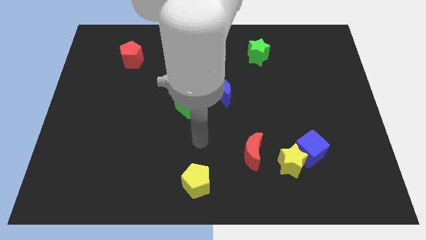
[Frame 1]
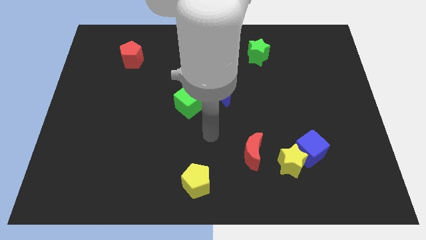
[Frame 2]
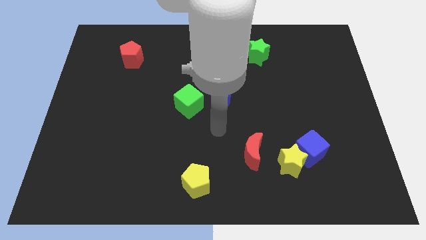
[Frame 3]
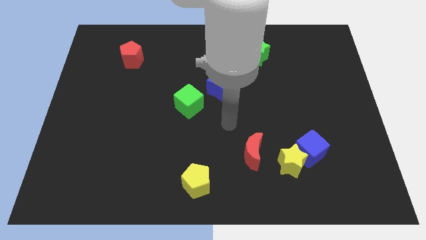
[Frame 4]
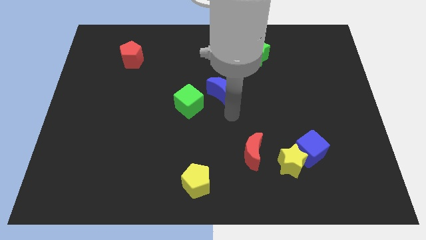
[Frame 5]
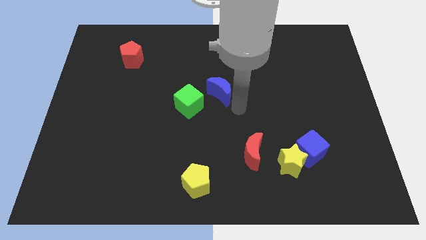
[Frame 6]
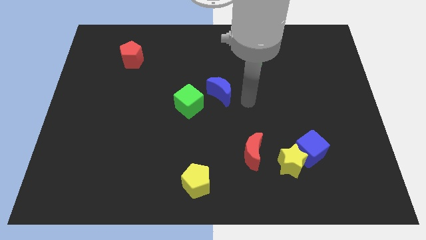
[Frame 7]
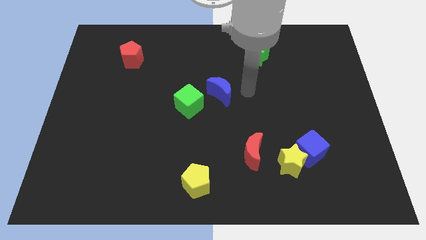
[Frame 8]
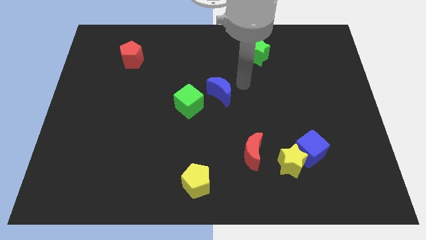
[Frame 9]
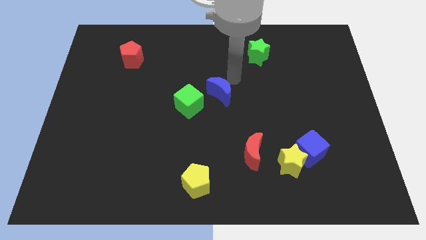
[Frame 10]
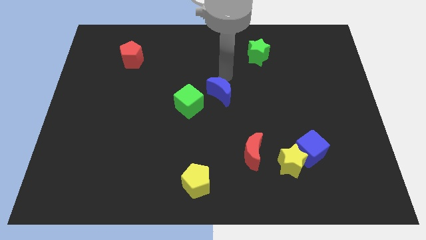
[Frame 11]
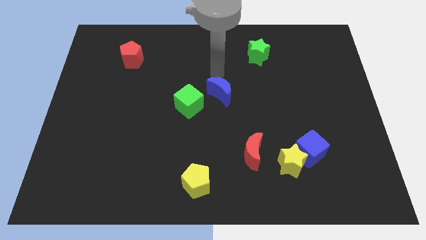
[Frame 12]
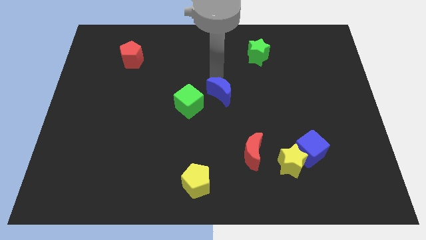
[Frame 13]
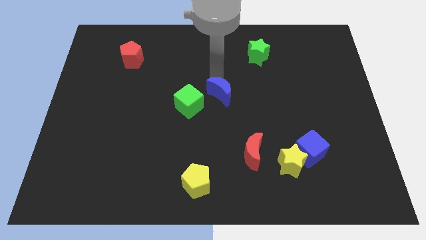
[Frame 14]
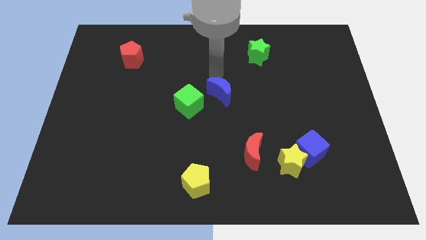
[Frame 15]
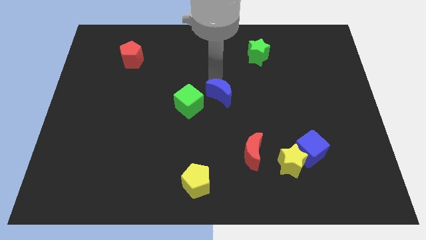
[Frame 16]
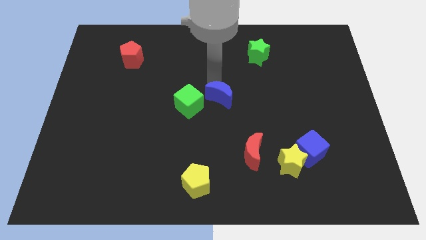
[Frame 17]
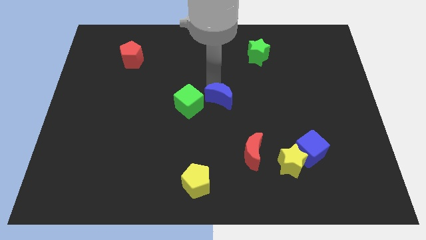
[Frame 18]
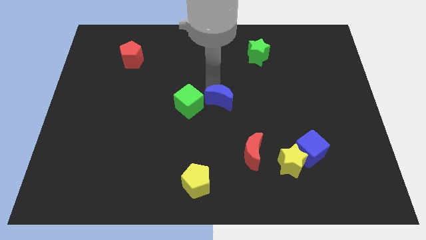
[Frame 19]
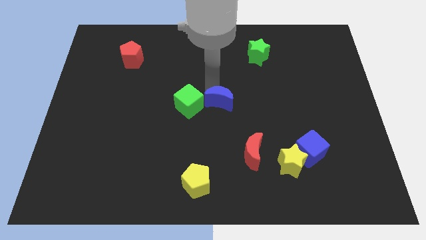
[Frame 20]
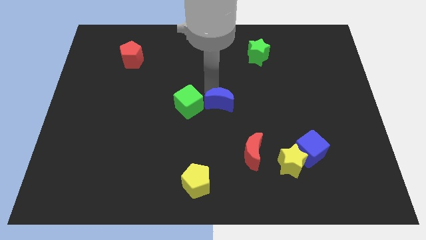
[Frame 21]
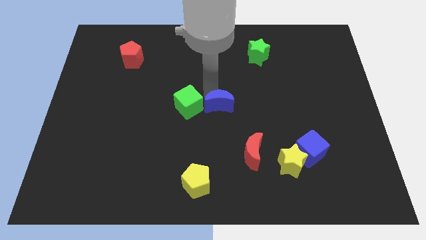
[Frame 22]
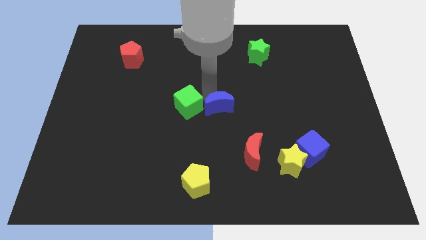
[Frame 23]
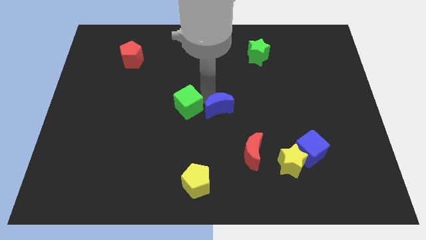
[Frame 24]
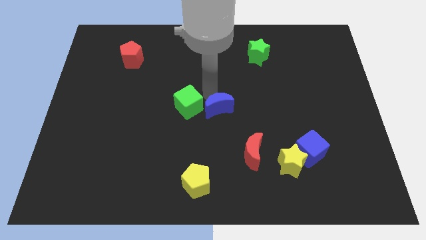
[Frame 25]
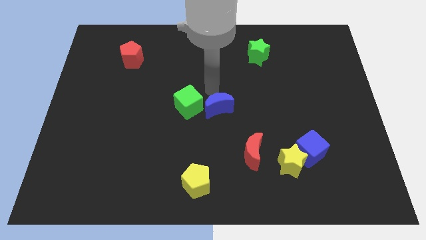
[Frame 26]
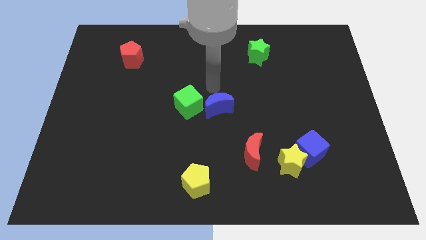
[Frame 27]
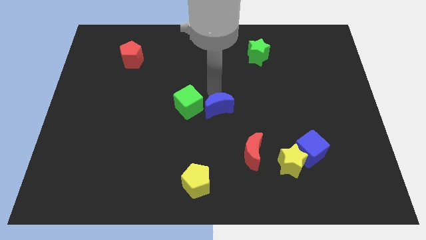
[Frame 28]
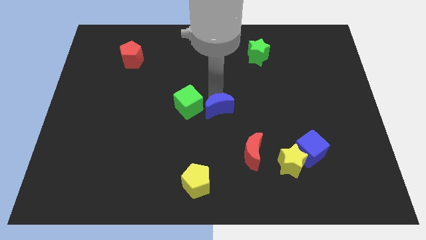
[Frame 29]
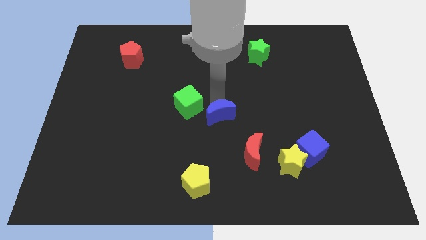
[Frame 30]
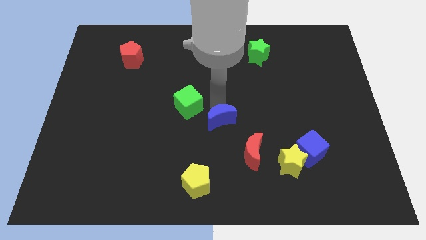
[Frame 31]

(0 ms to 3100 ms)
slightly move the blue moon down

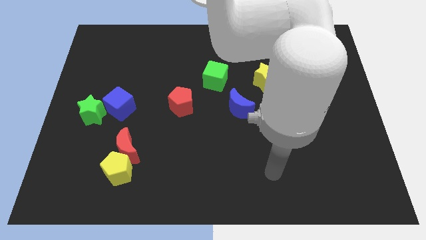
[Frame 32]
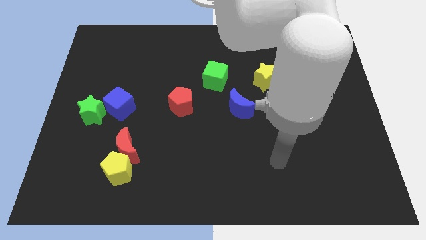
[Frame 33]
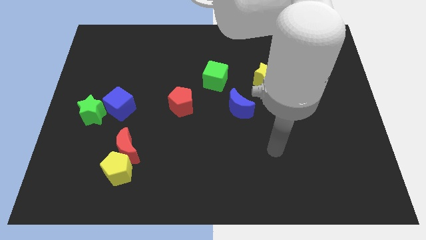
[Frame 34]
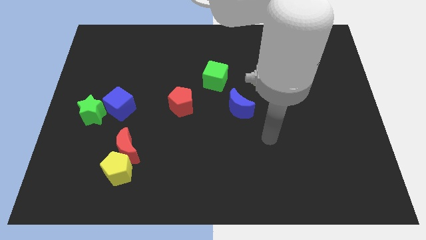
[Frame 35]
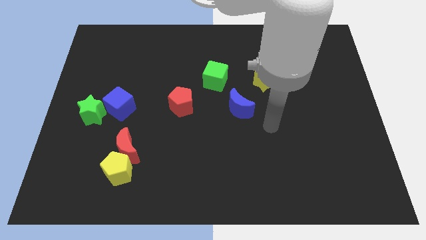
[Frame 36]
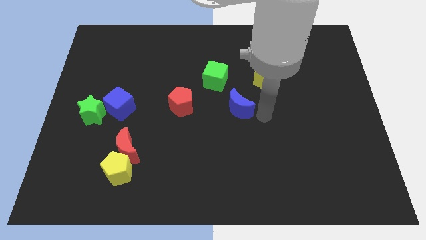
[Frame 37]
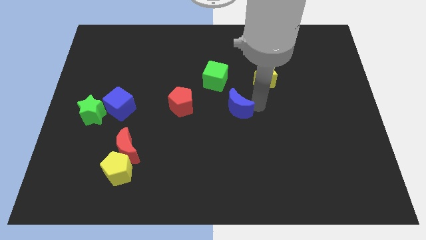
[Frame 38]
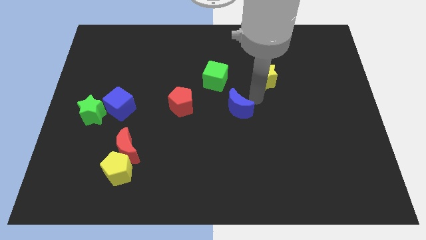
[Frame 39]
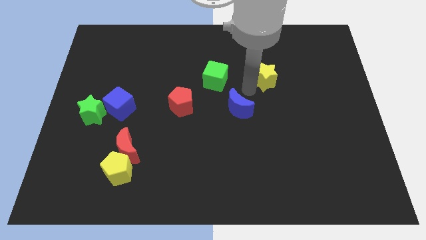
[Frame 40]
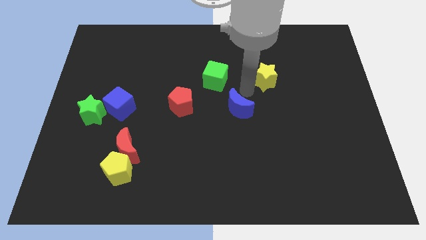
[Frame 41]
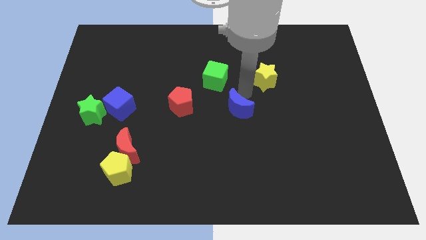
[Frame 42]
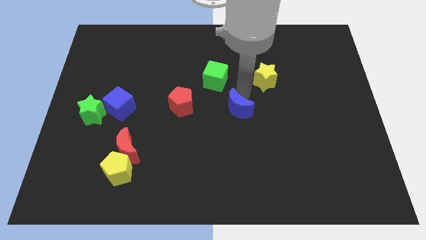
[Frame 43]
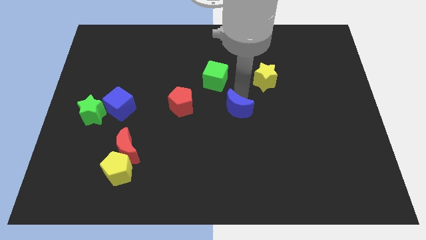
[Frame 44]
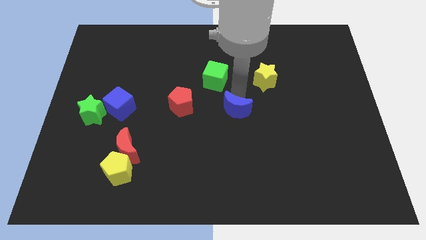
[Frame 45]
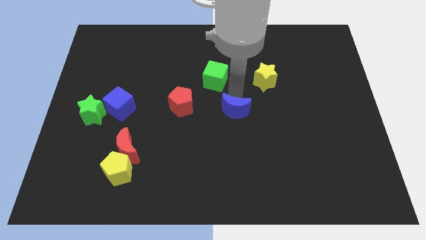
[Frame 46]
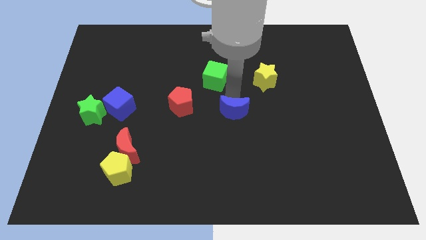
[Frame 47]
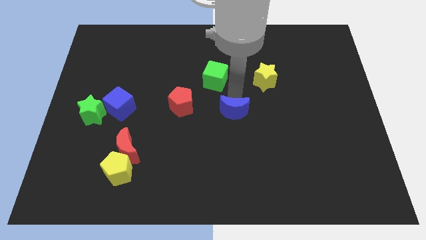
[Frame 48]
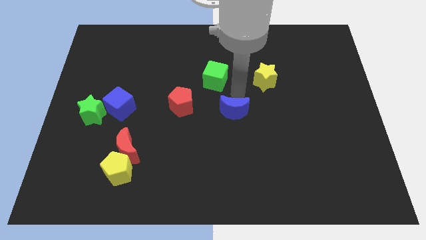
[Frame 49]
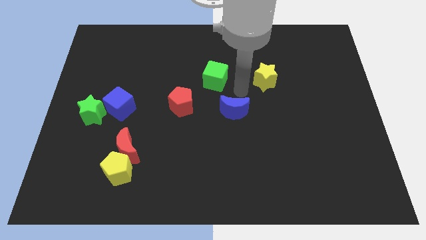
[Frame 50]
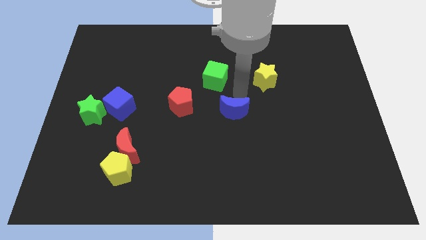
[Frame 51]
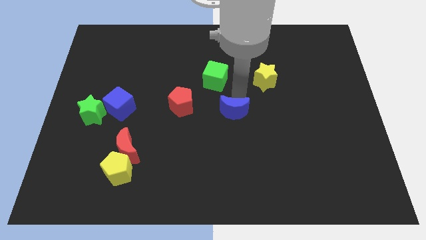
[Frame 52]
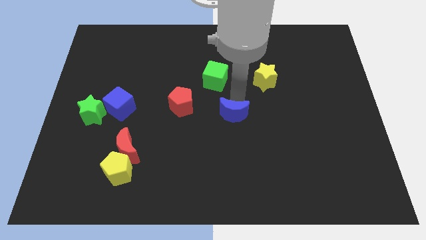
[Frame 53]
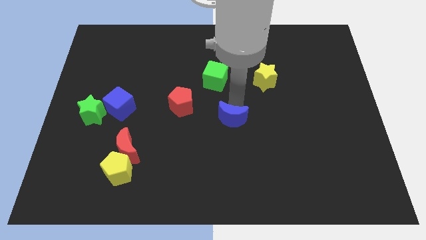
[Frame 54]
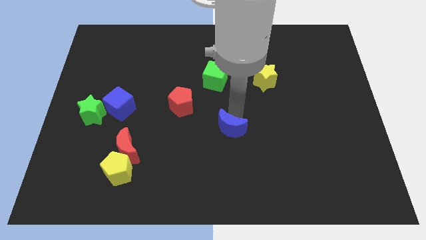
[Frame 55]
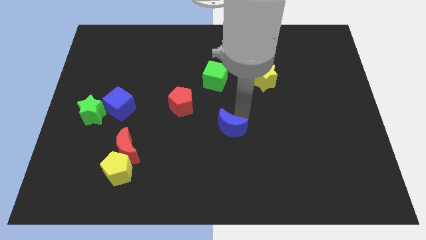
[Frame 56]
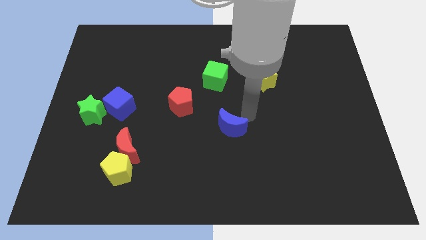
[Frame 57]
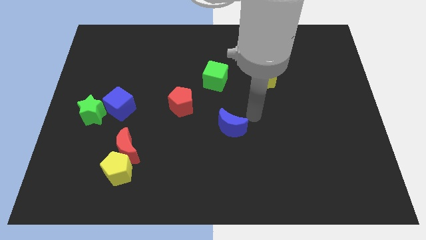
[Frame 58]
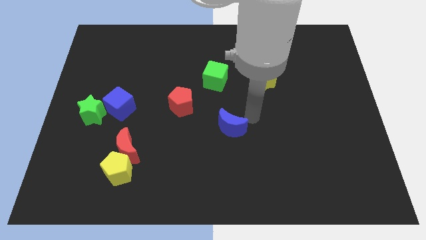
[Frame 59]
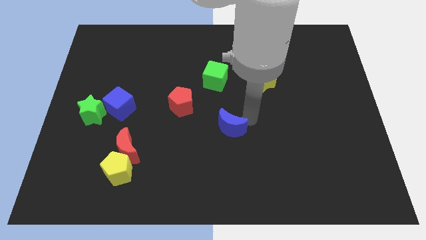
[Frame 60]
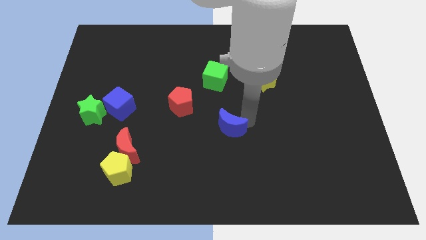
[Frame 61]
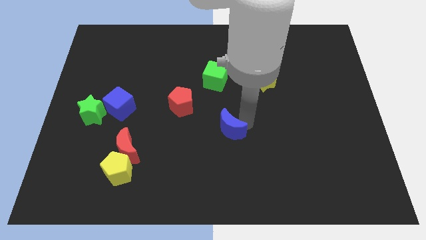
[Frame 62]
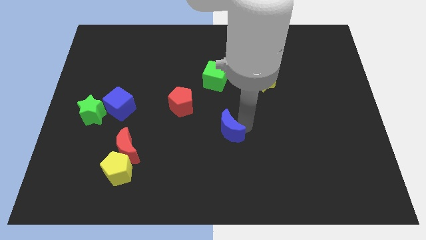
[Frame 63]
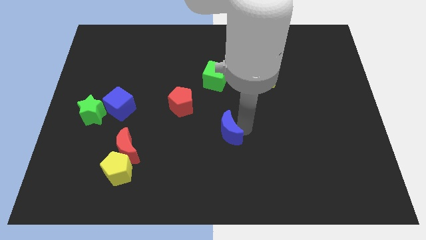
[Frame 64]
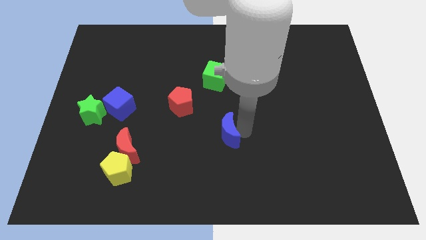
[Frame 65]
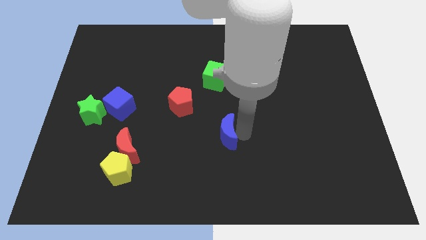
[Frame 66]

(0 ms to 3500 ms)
slide the blue moon a little bit downwards and left

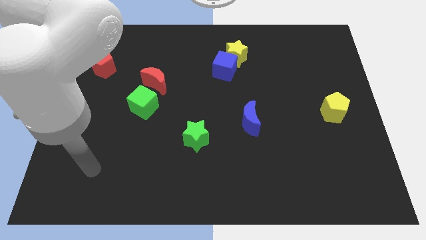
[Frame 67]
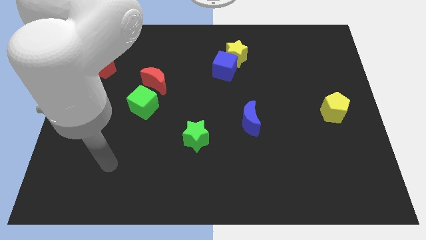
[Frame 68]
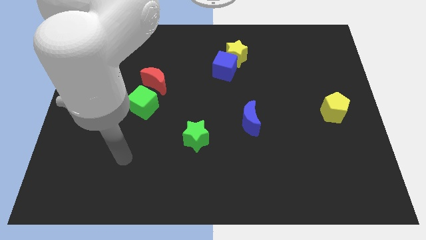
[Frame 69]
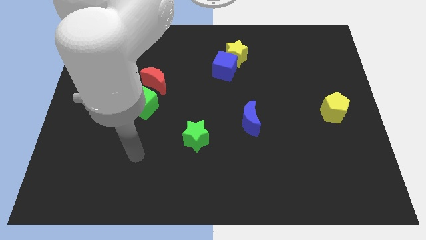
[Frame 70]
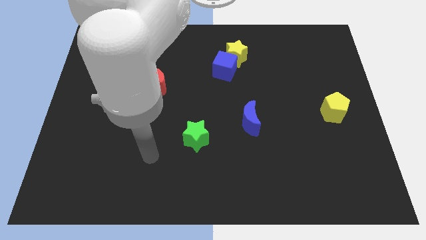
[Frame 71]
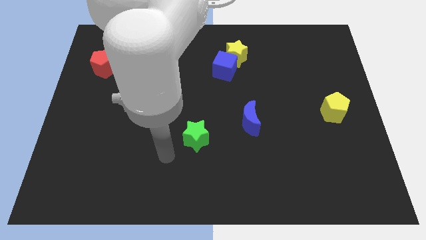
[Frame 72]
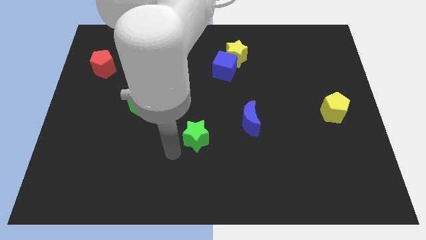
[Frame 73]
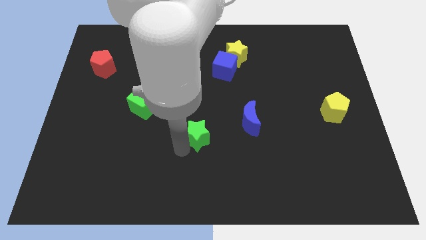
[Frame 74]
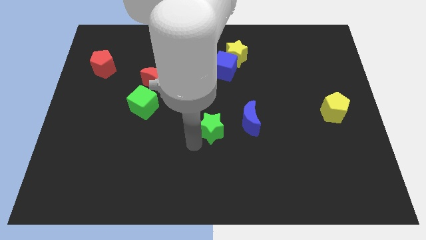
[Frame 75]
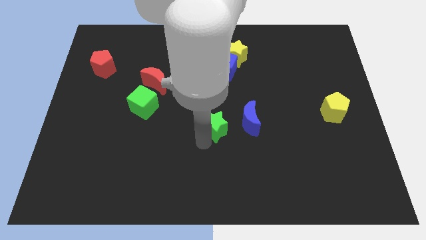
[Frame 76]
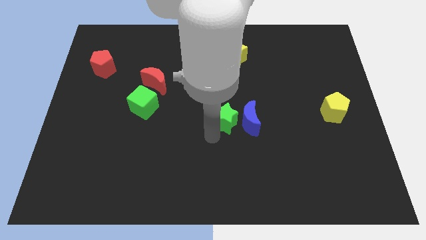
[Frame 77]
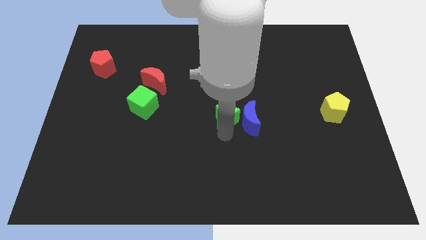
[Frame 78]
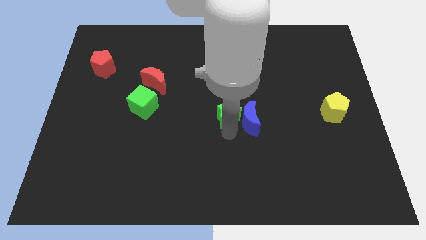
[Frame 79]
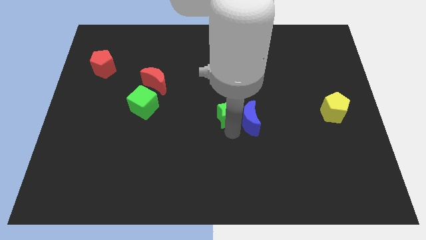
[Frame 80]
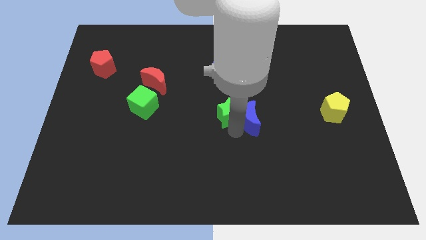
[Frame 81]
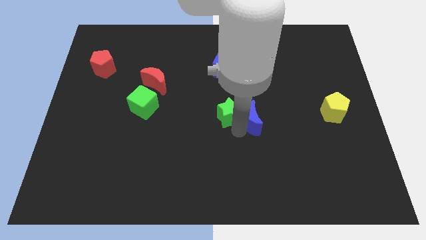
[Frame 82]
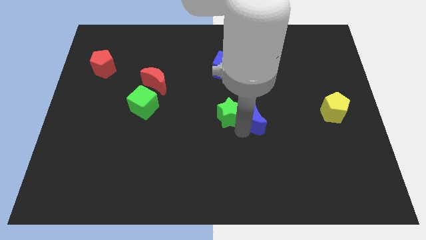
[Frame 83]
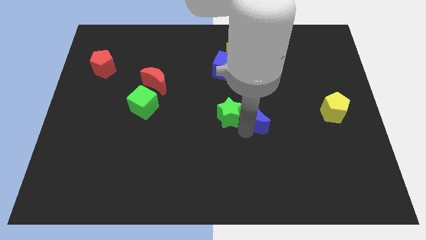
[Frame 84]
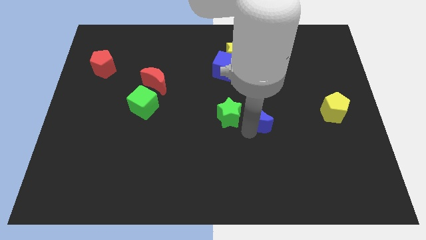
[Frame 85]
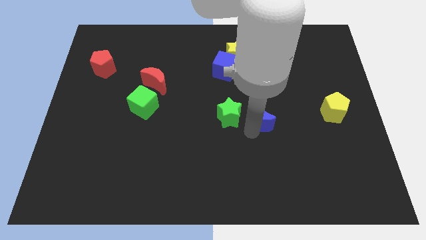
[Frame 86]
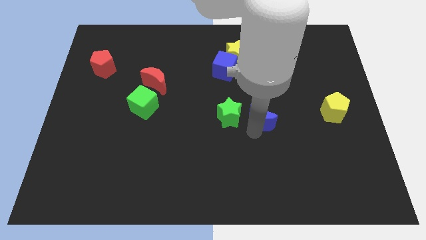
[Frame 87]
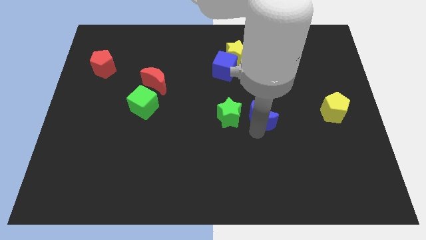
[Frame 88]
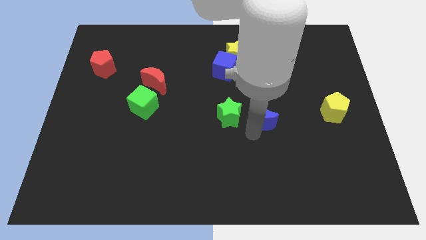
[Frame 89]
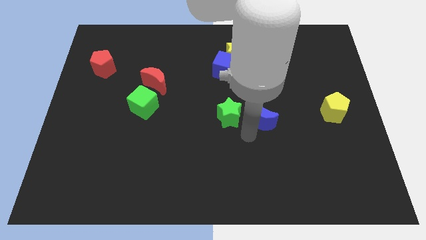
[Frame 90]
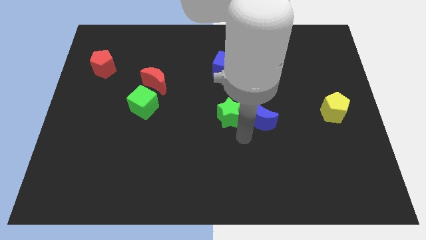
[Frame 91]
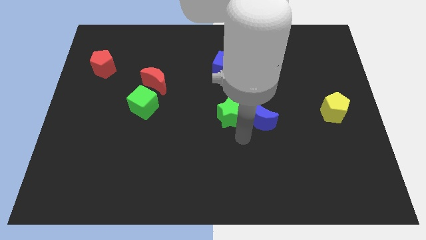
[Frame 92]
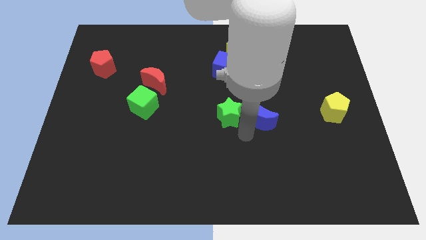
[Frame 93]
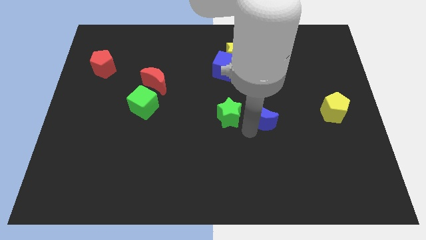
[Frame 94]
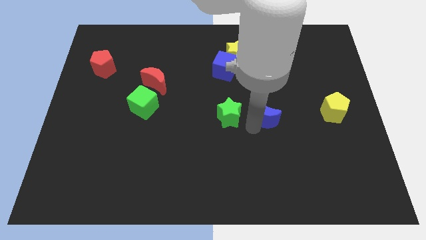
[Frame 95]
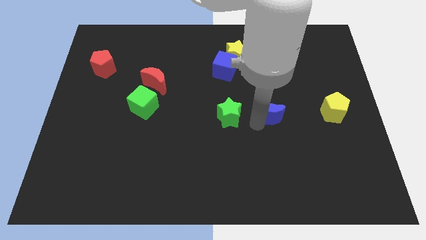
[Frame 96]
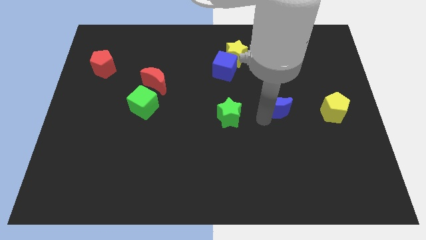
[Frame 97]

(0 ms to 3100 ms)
push the blue moon somewhat up and to the right diagonally
